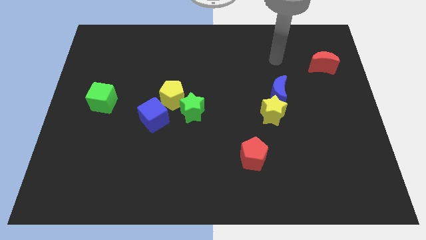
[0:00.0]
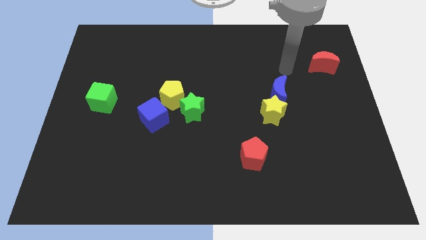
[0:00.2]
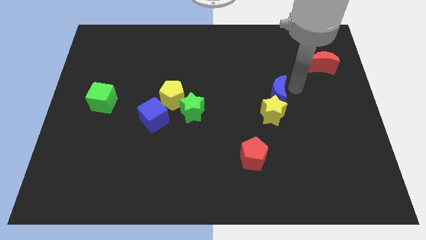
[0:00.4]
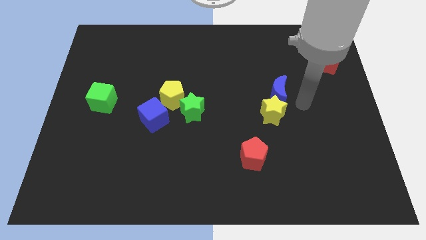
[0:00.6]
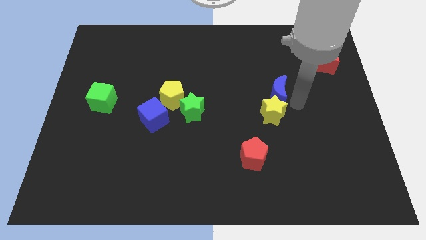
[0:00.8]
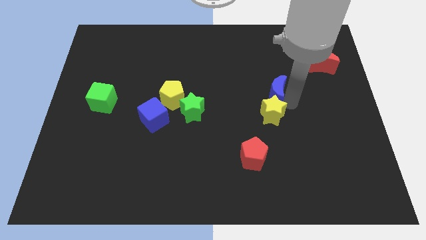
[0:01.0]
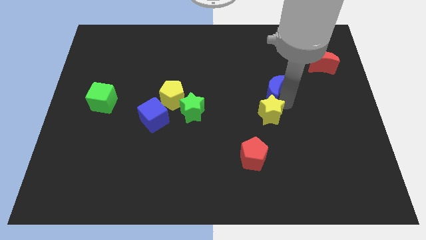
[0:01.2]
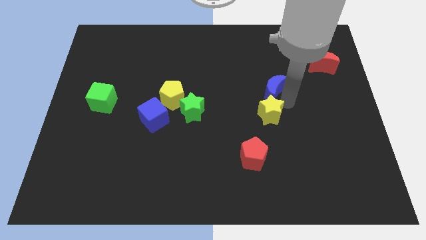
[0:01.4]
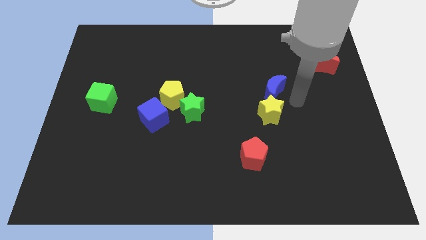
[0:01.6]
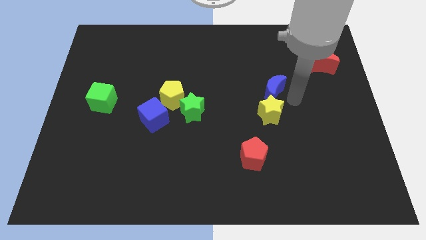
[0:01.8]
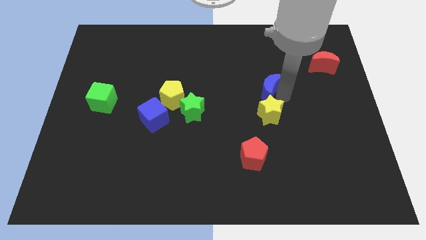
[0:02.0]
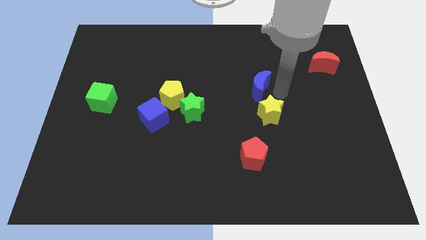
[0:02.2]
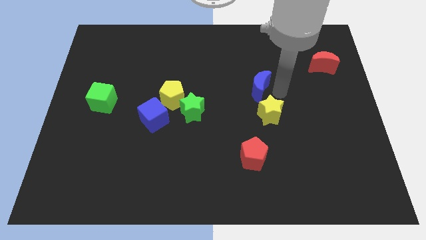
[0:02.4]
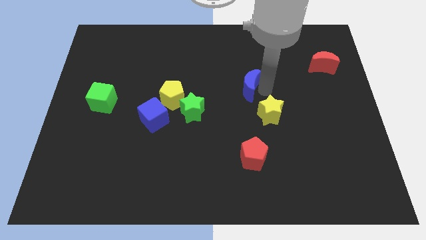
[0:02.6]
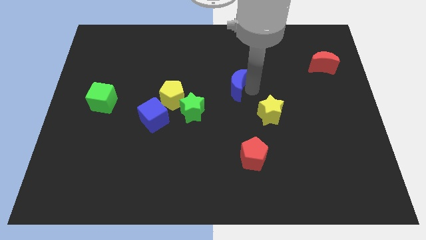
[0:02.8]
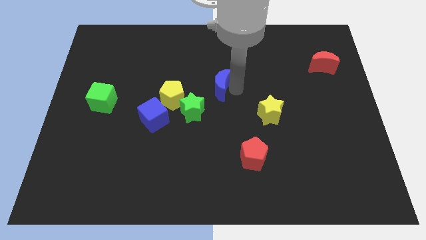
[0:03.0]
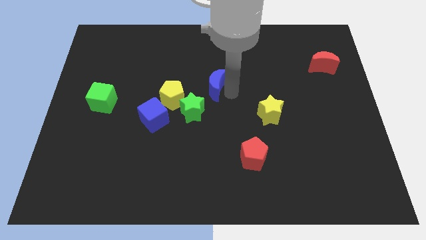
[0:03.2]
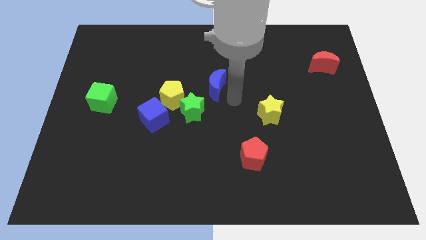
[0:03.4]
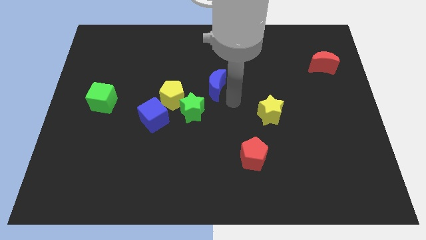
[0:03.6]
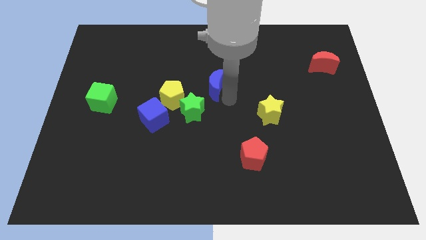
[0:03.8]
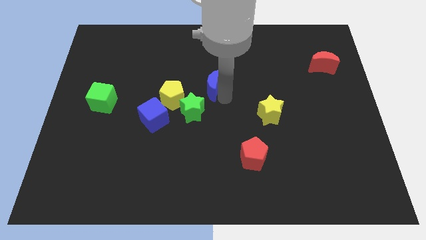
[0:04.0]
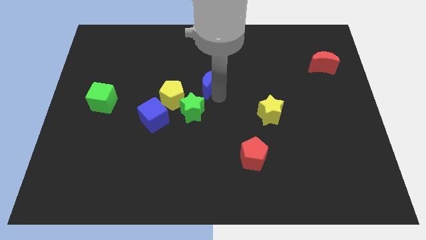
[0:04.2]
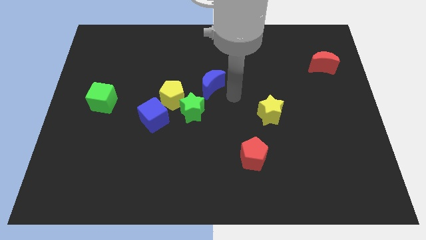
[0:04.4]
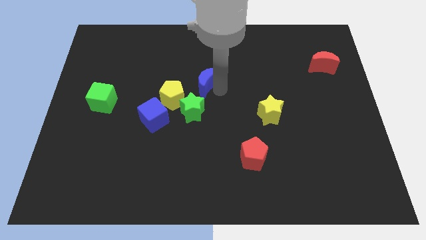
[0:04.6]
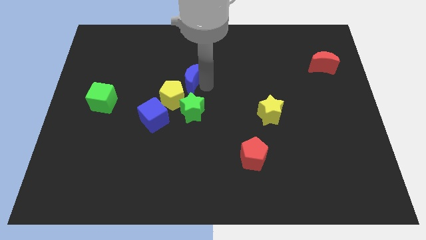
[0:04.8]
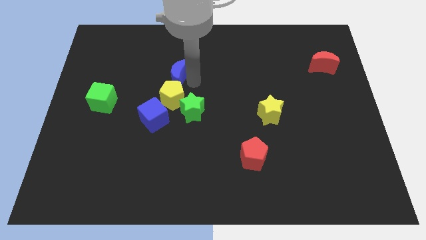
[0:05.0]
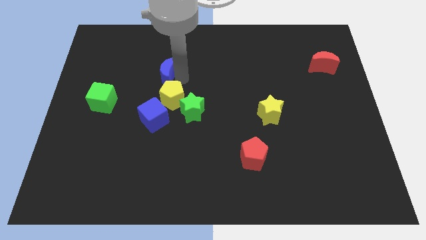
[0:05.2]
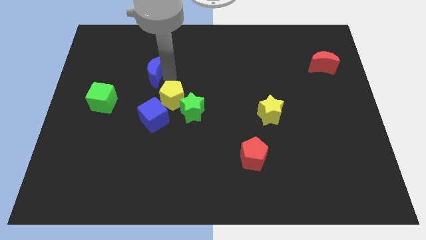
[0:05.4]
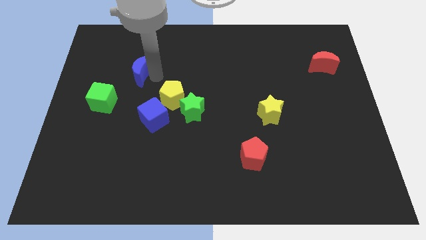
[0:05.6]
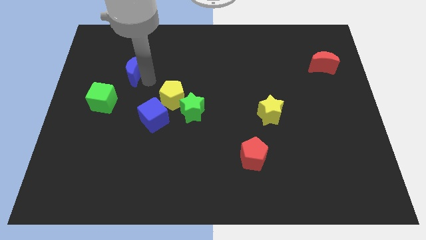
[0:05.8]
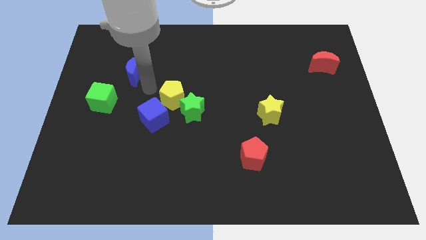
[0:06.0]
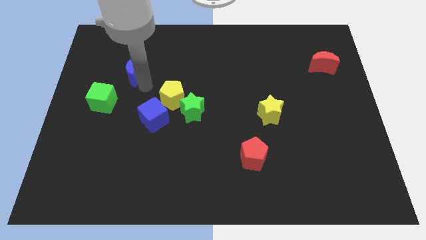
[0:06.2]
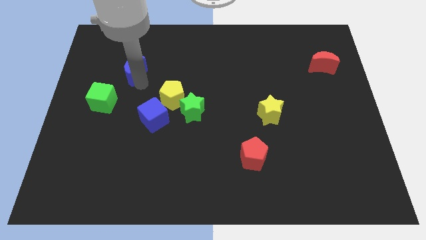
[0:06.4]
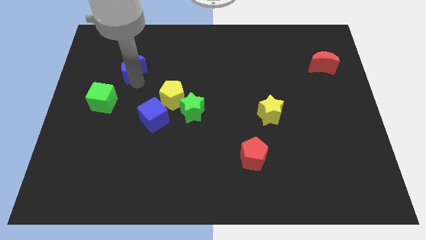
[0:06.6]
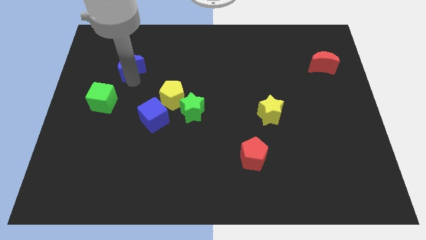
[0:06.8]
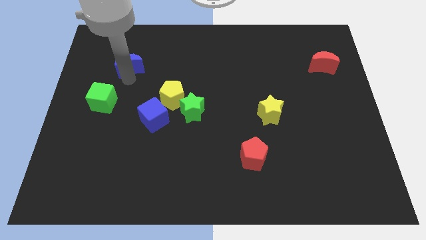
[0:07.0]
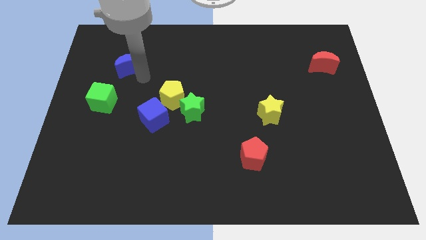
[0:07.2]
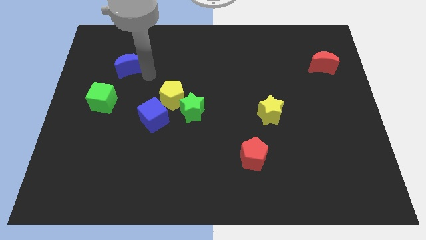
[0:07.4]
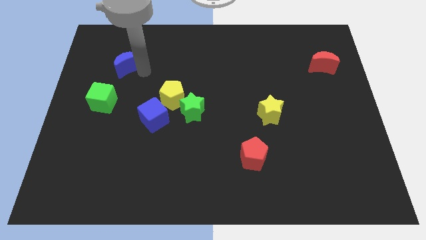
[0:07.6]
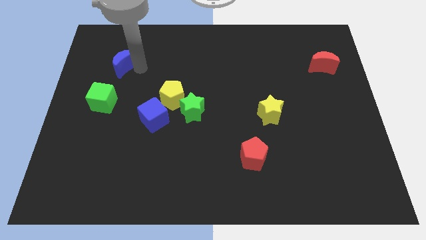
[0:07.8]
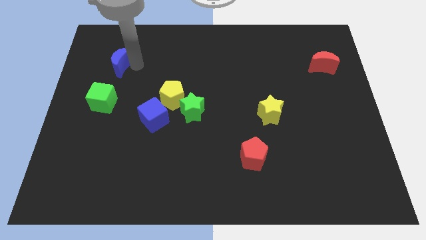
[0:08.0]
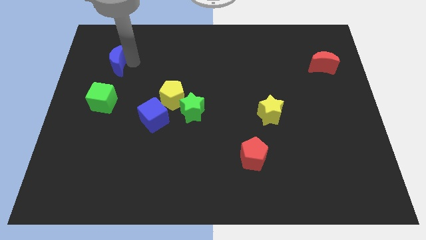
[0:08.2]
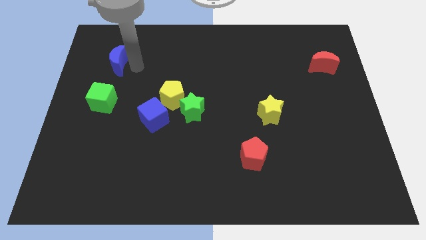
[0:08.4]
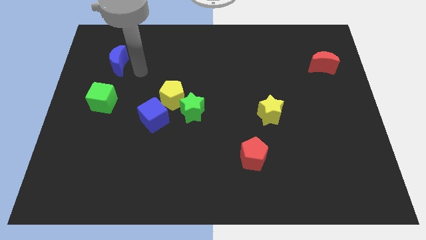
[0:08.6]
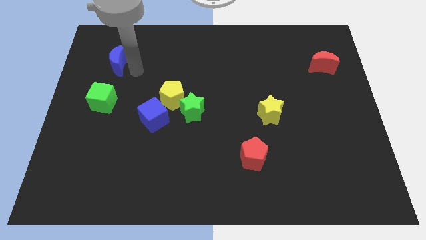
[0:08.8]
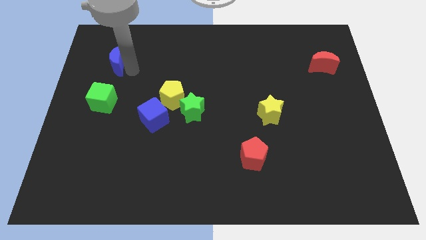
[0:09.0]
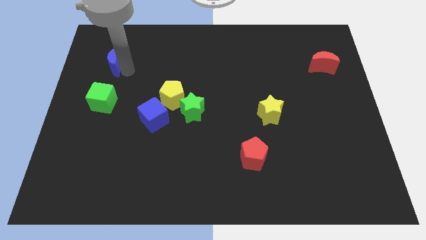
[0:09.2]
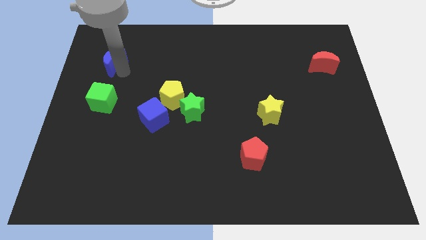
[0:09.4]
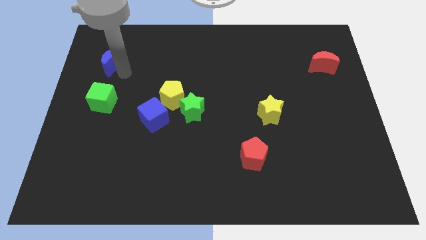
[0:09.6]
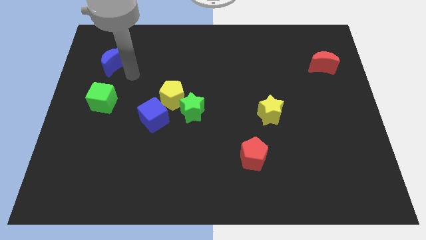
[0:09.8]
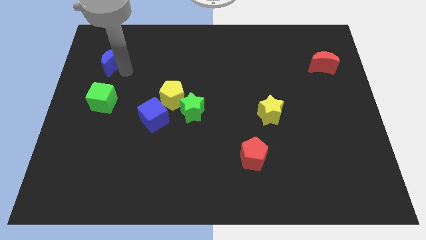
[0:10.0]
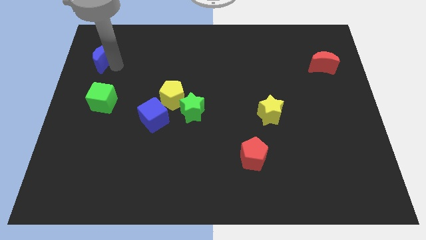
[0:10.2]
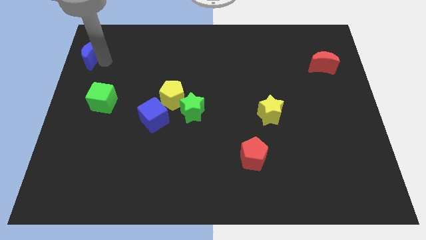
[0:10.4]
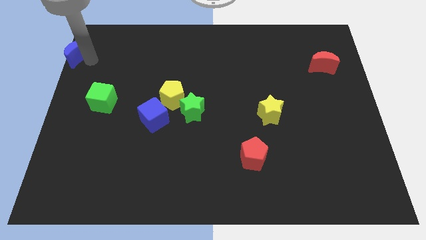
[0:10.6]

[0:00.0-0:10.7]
put the blue moon to the top left corner
